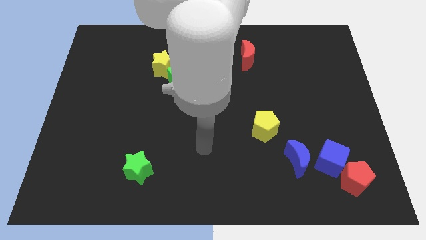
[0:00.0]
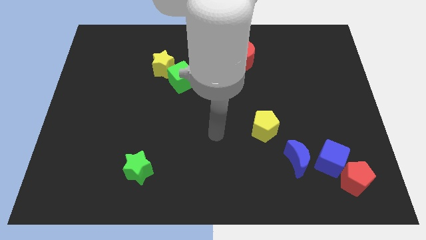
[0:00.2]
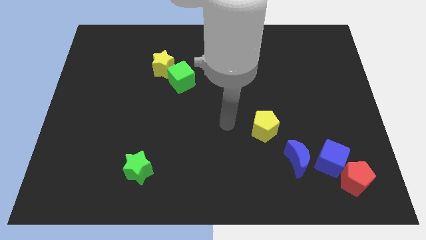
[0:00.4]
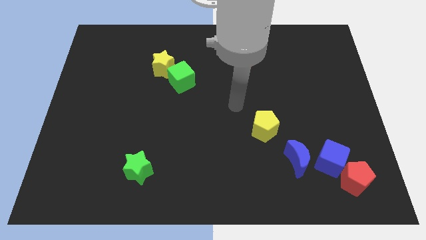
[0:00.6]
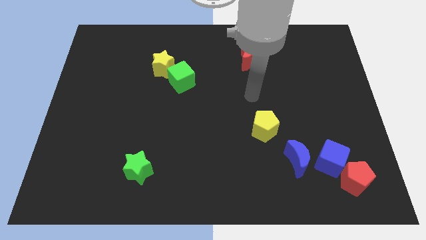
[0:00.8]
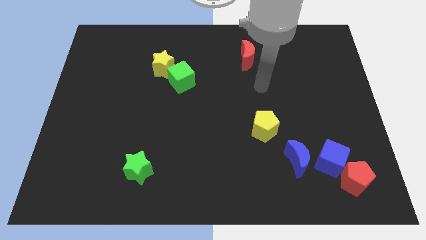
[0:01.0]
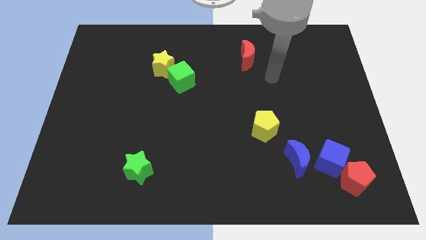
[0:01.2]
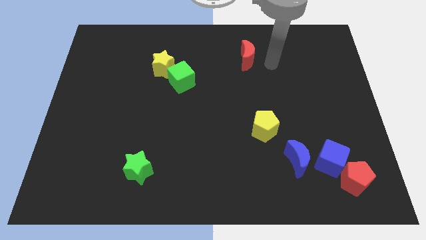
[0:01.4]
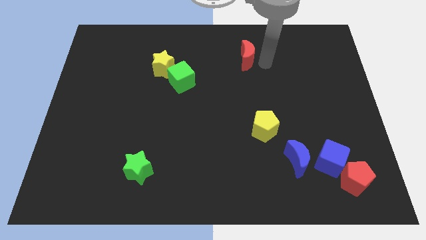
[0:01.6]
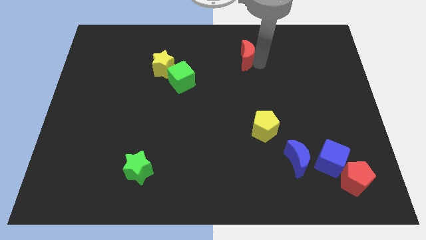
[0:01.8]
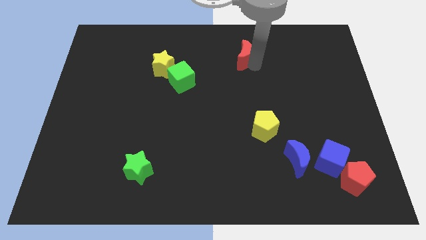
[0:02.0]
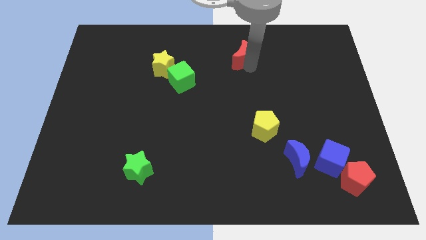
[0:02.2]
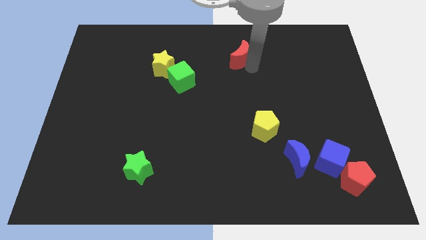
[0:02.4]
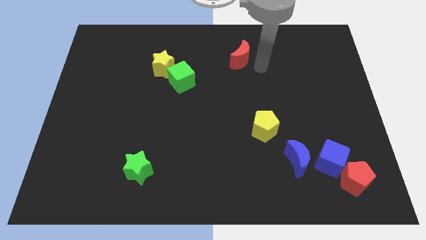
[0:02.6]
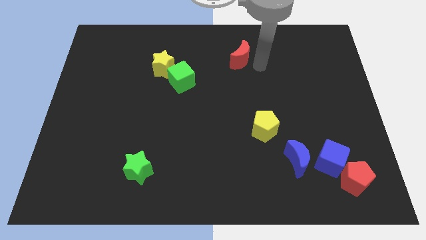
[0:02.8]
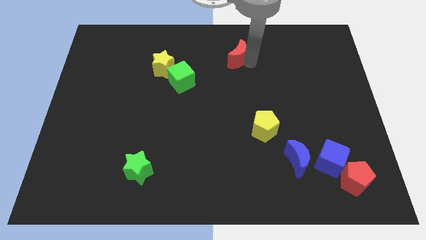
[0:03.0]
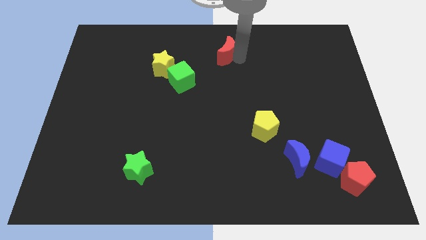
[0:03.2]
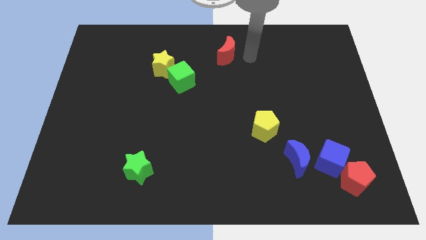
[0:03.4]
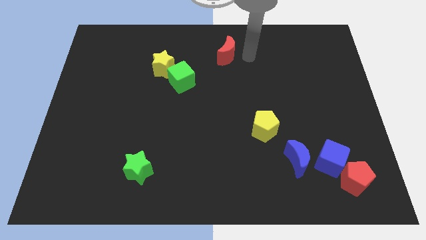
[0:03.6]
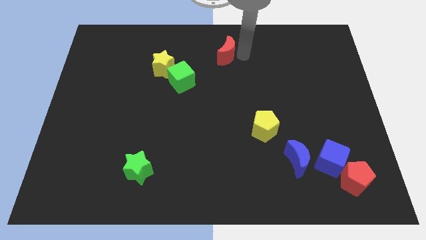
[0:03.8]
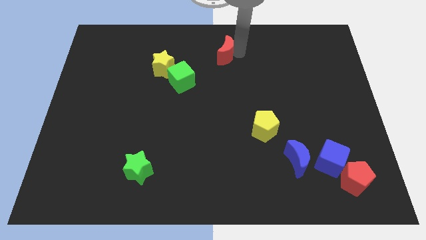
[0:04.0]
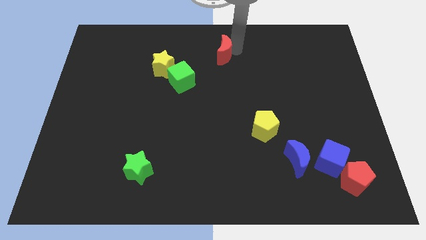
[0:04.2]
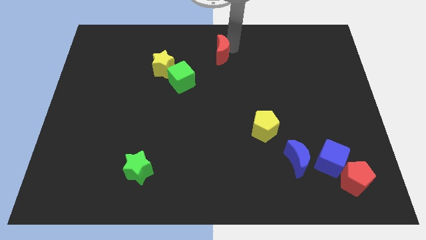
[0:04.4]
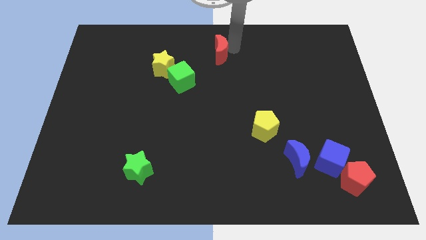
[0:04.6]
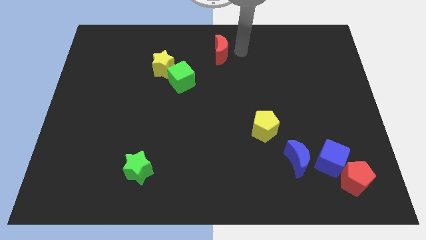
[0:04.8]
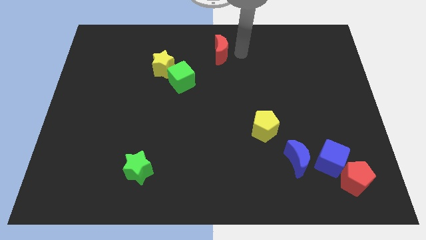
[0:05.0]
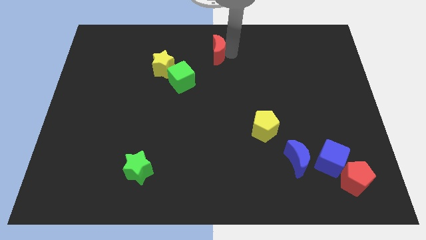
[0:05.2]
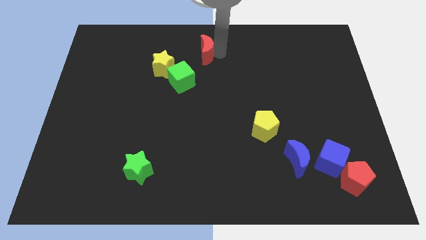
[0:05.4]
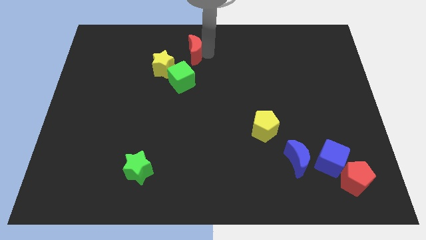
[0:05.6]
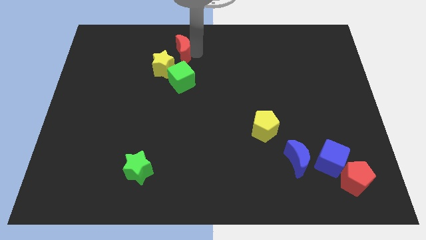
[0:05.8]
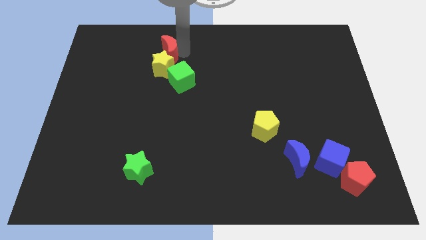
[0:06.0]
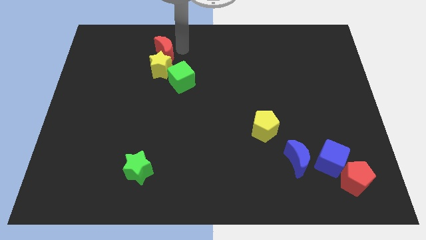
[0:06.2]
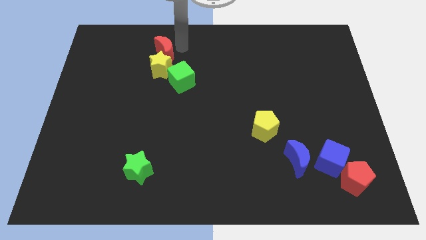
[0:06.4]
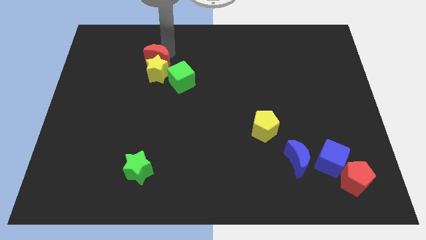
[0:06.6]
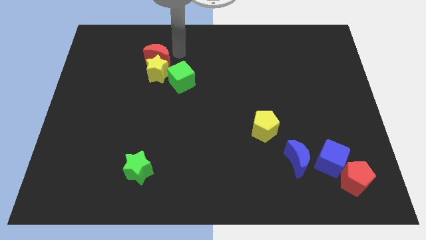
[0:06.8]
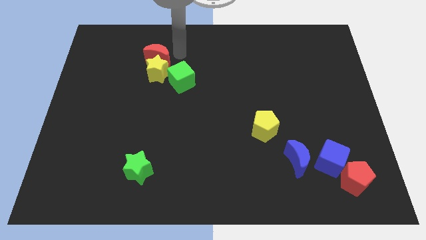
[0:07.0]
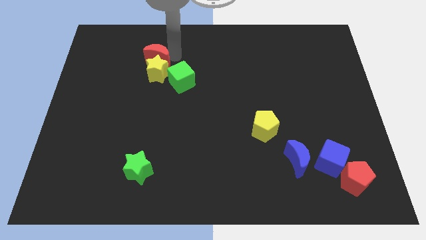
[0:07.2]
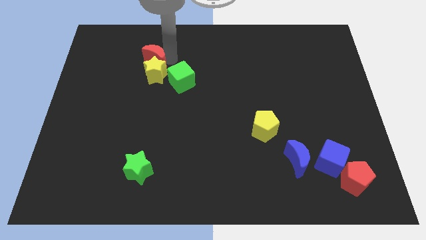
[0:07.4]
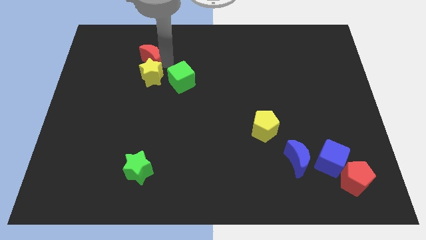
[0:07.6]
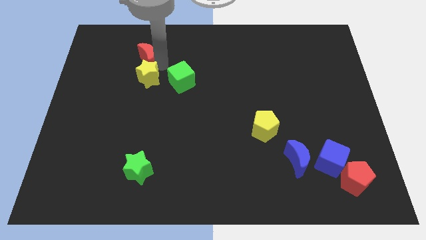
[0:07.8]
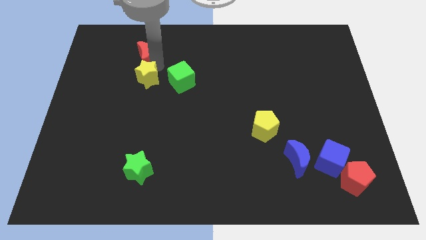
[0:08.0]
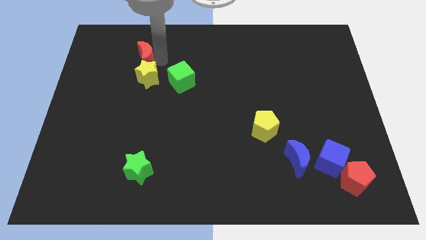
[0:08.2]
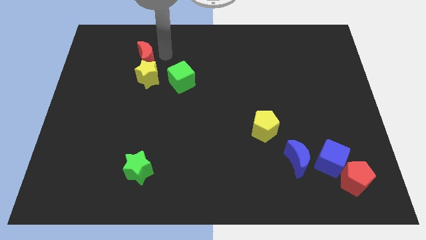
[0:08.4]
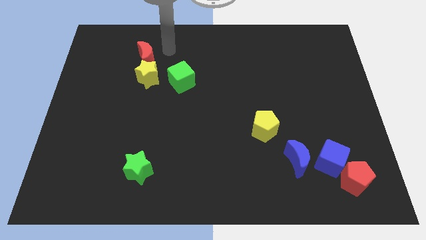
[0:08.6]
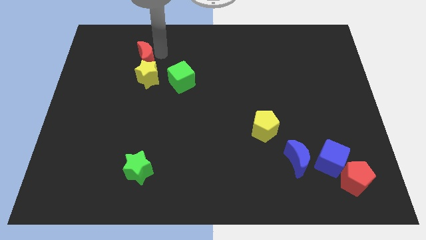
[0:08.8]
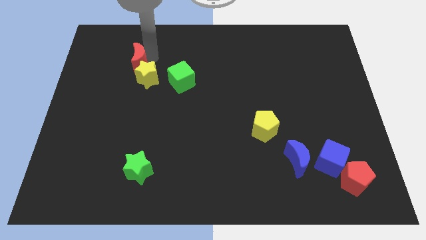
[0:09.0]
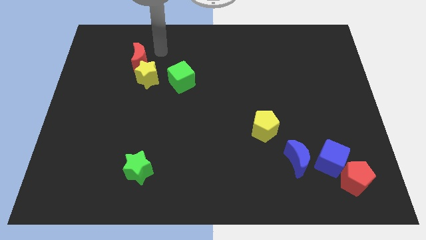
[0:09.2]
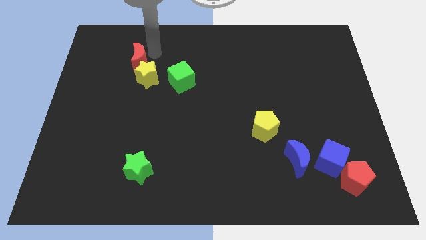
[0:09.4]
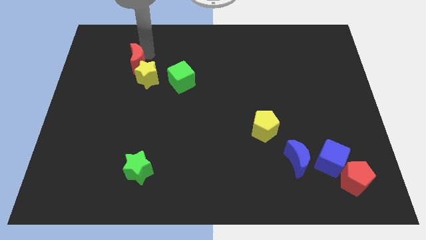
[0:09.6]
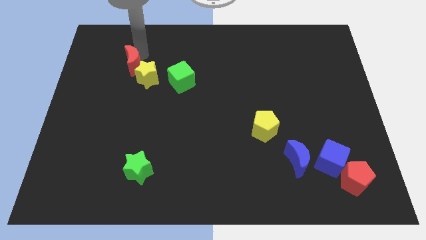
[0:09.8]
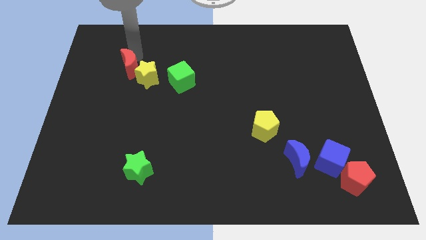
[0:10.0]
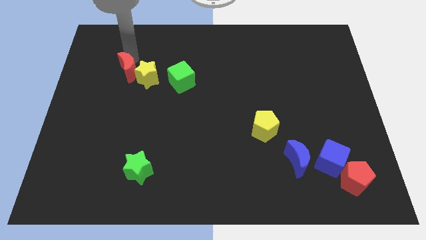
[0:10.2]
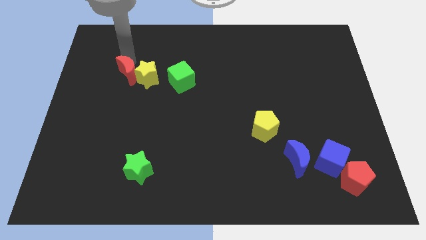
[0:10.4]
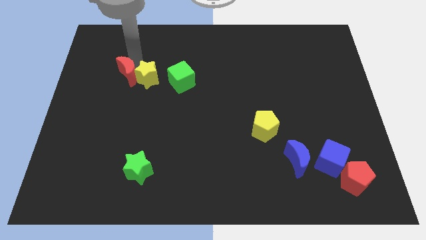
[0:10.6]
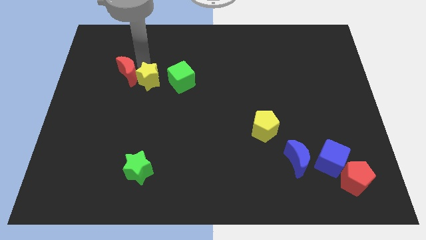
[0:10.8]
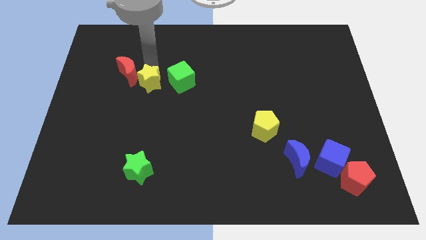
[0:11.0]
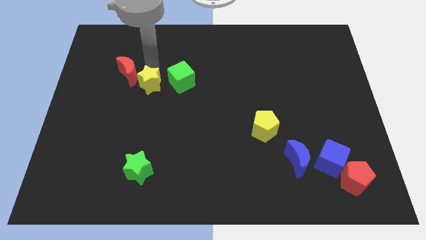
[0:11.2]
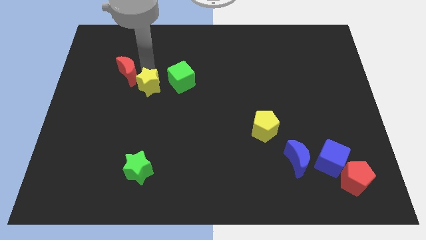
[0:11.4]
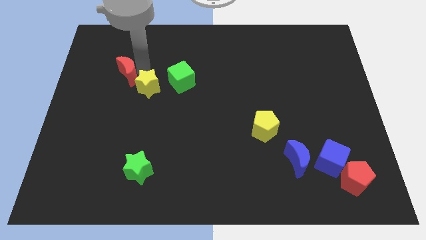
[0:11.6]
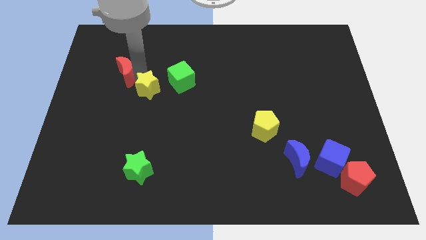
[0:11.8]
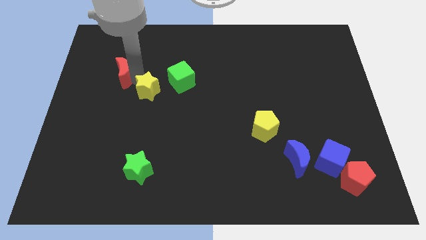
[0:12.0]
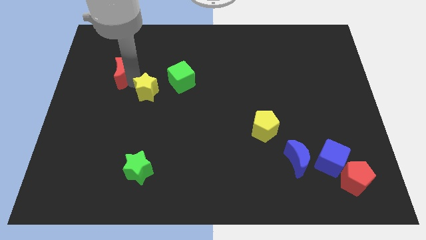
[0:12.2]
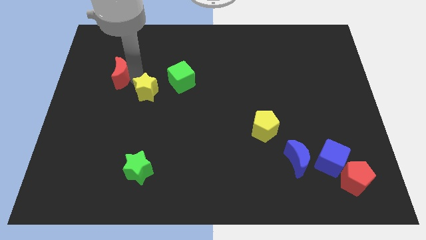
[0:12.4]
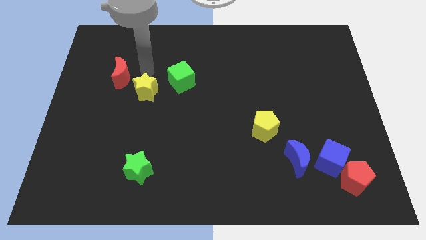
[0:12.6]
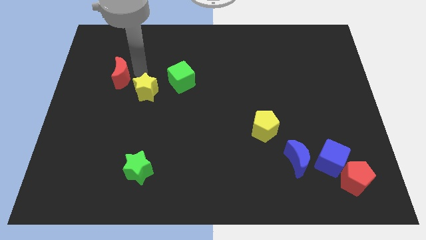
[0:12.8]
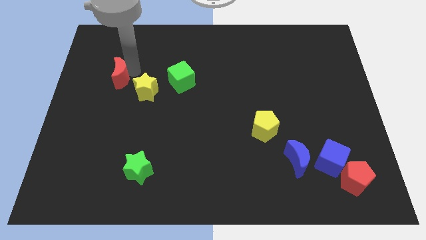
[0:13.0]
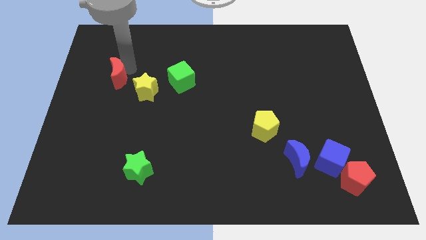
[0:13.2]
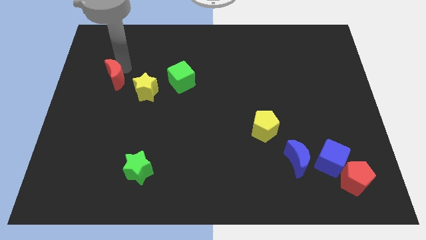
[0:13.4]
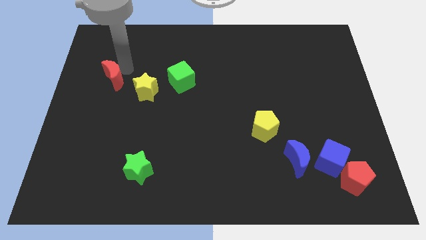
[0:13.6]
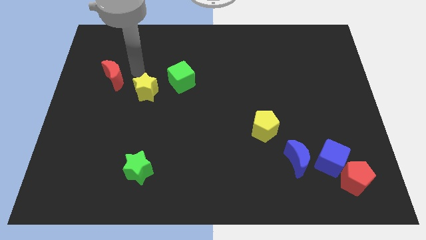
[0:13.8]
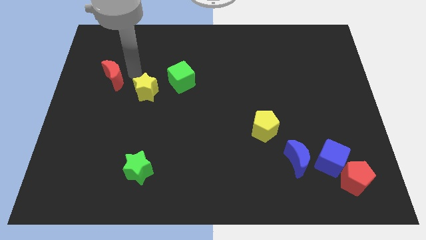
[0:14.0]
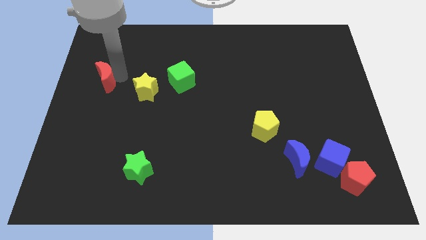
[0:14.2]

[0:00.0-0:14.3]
push the red moon to the center left
